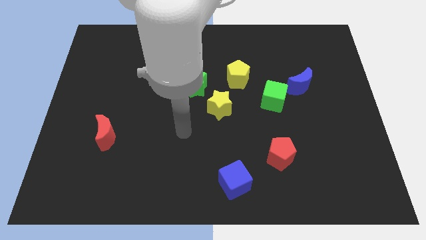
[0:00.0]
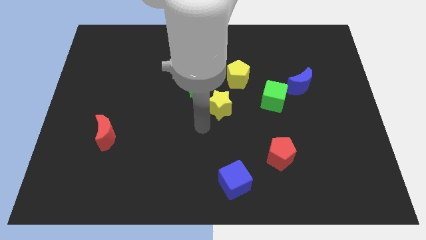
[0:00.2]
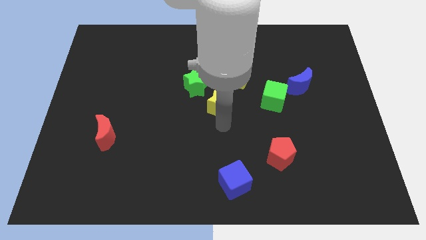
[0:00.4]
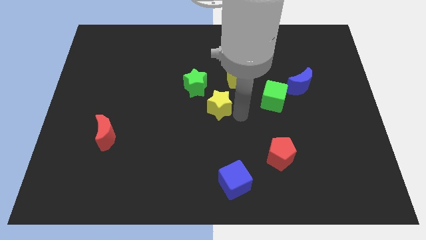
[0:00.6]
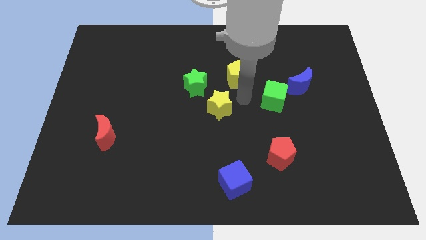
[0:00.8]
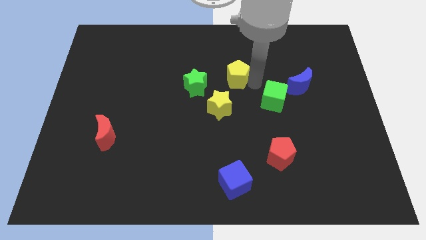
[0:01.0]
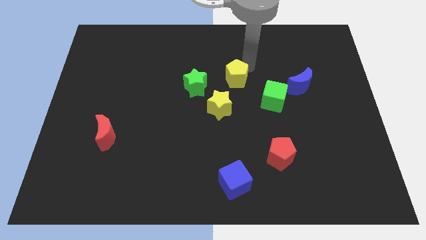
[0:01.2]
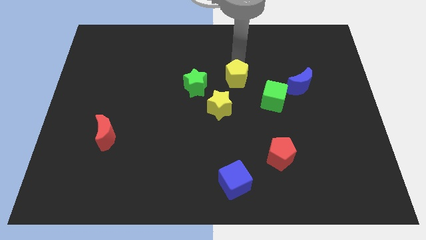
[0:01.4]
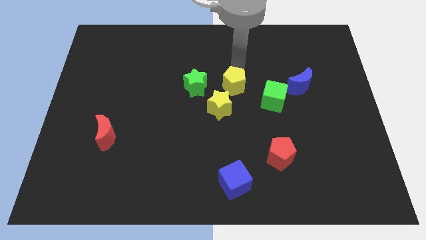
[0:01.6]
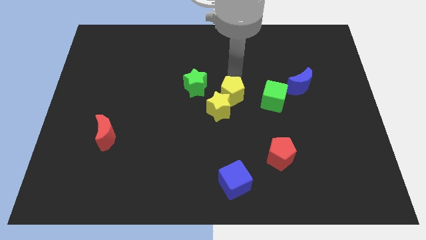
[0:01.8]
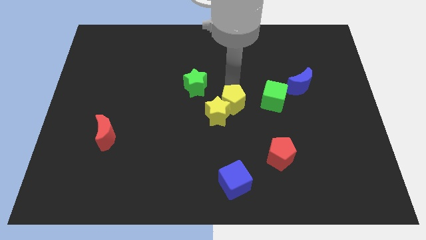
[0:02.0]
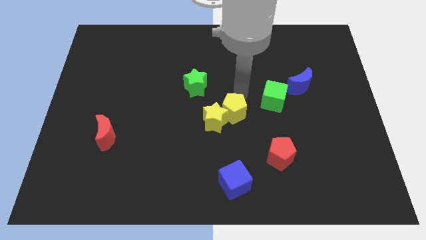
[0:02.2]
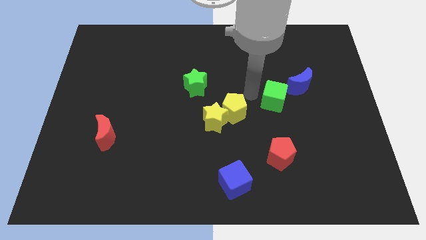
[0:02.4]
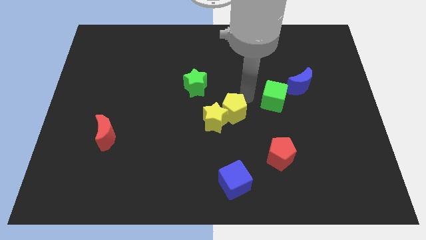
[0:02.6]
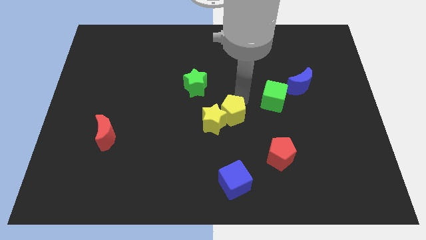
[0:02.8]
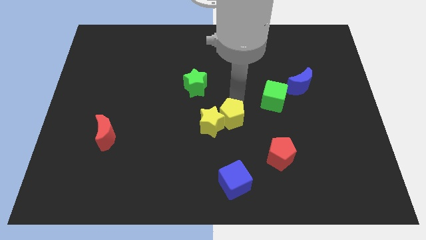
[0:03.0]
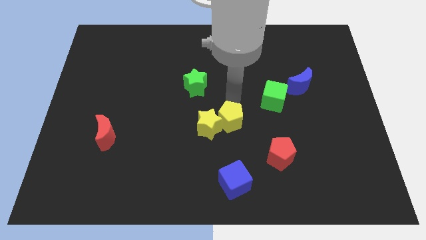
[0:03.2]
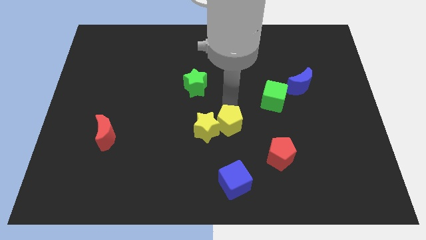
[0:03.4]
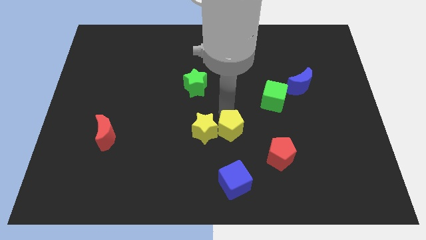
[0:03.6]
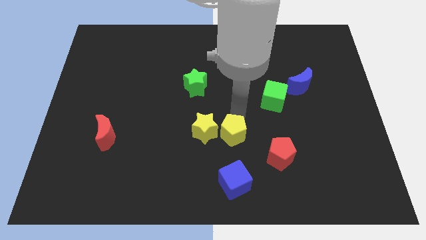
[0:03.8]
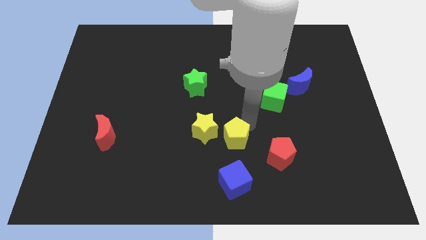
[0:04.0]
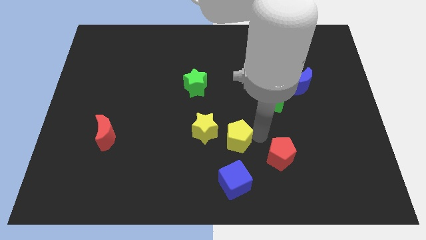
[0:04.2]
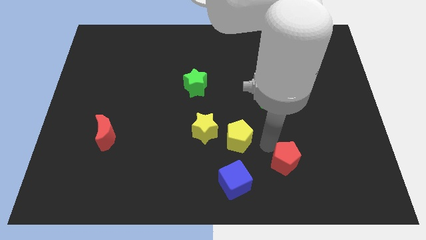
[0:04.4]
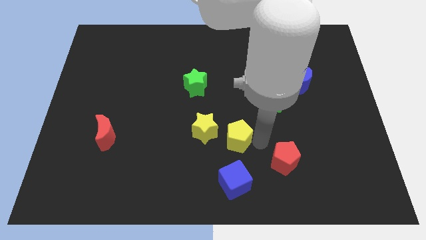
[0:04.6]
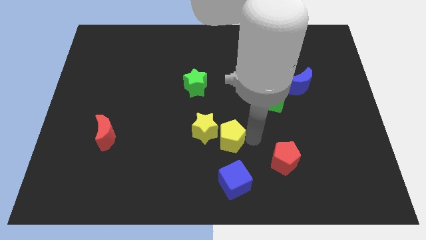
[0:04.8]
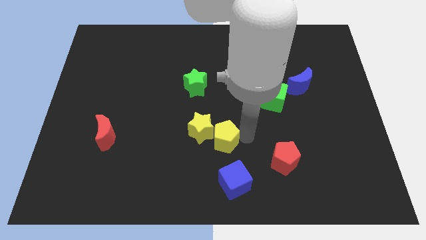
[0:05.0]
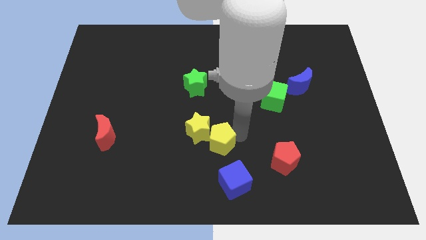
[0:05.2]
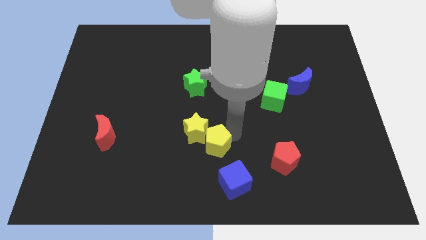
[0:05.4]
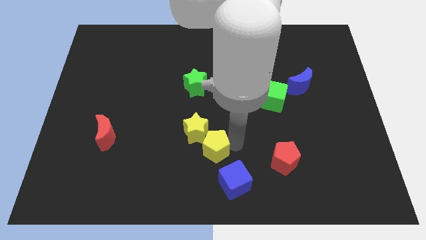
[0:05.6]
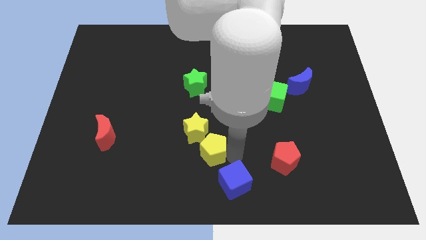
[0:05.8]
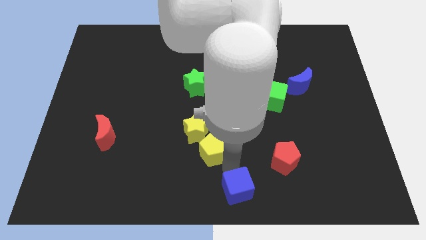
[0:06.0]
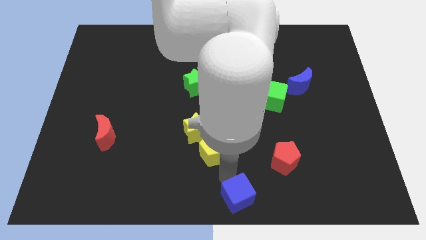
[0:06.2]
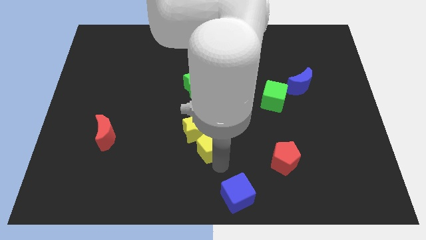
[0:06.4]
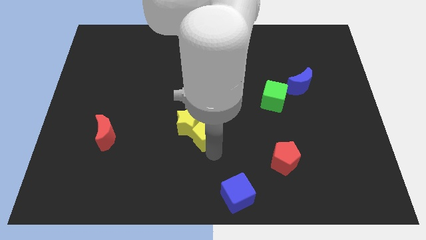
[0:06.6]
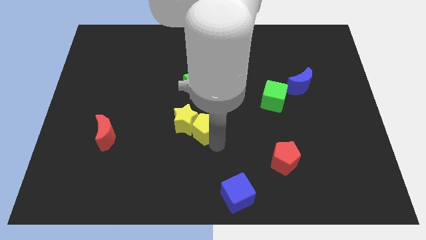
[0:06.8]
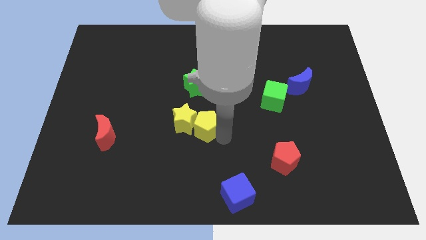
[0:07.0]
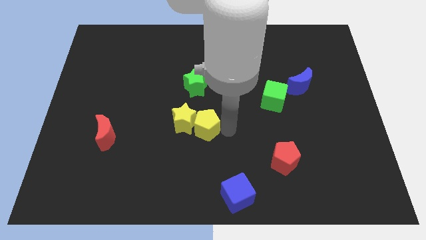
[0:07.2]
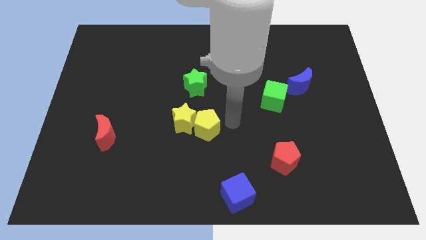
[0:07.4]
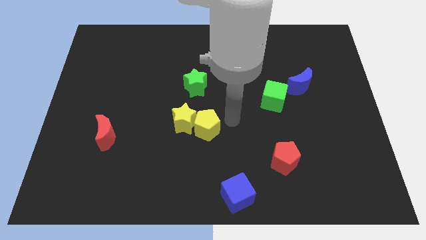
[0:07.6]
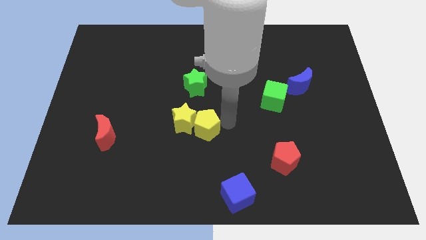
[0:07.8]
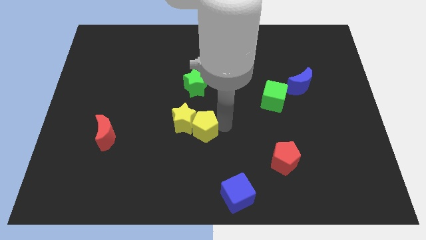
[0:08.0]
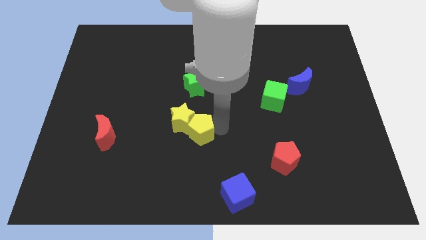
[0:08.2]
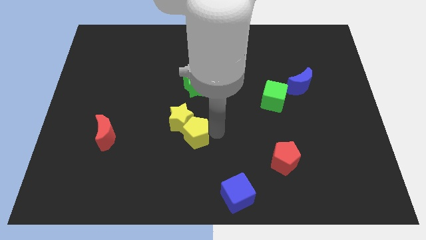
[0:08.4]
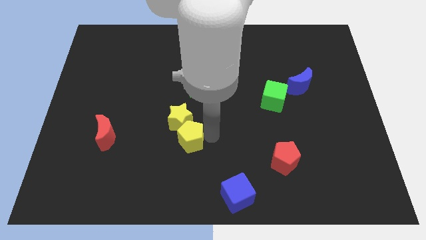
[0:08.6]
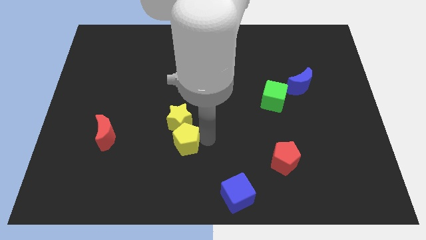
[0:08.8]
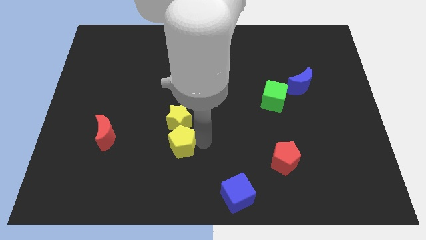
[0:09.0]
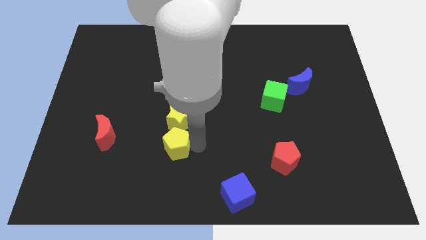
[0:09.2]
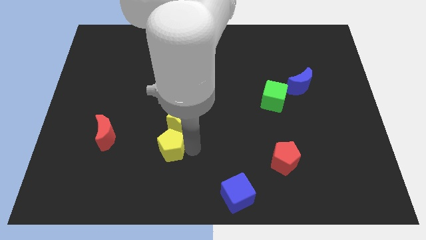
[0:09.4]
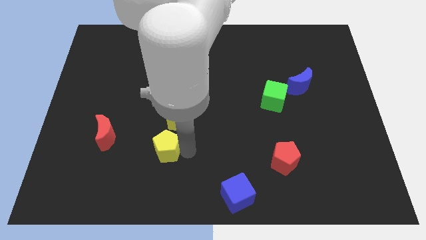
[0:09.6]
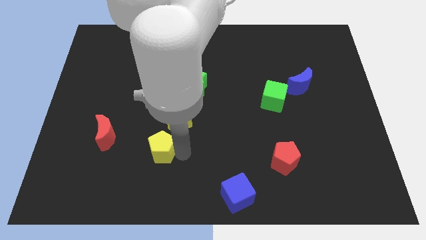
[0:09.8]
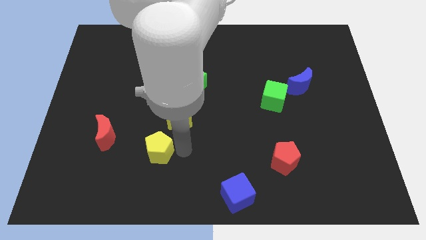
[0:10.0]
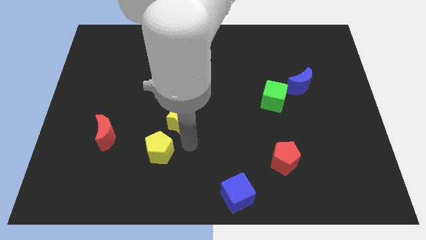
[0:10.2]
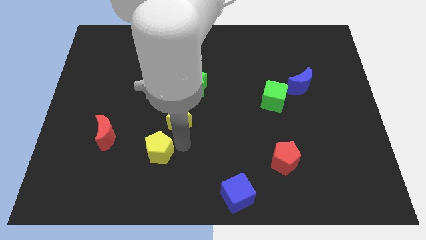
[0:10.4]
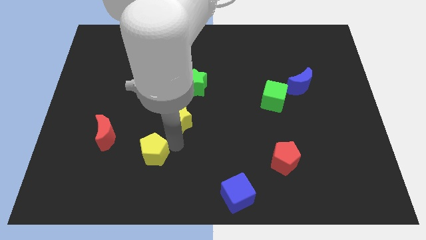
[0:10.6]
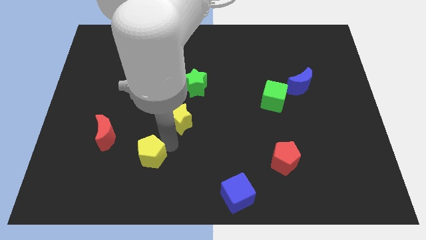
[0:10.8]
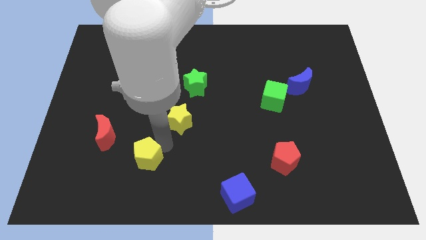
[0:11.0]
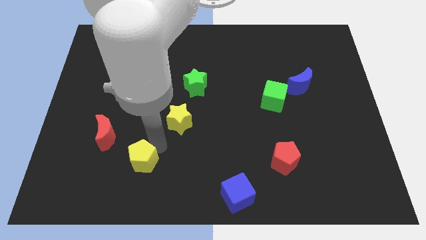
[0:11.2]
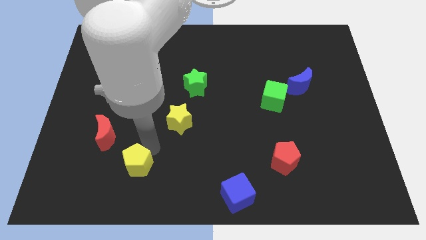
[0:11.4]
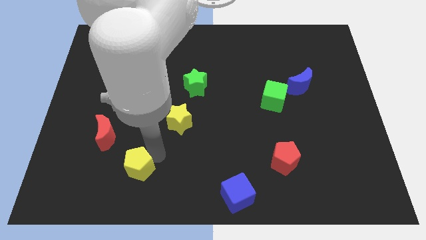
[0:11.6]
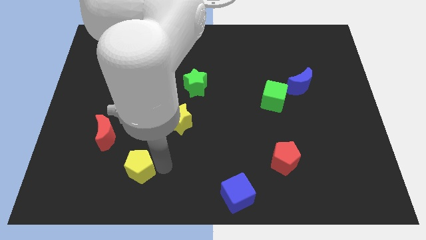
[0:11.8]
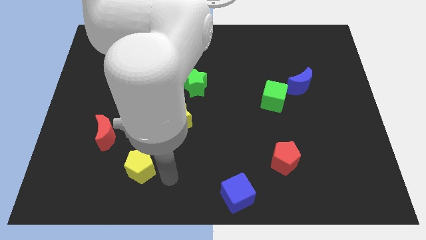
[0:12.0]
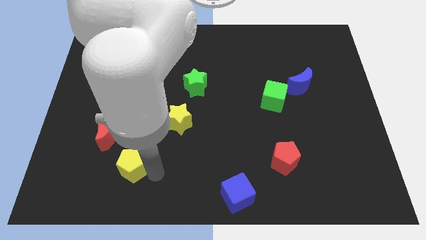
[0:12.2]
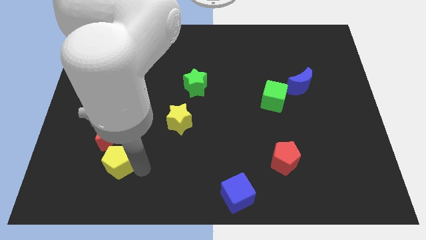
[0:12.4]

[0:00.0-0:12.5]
push the yellow pentagon to the bottom of the red moon

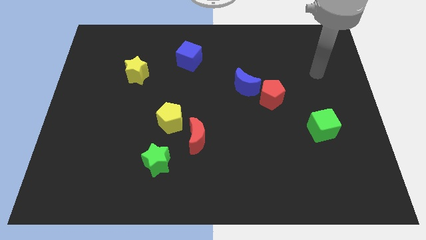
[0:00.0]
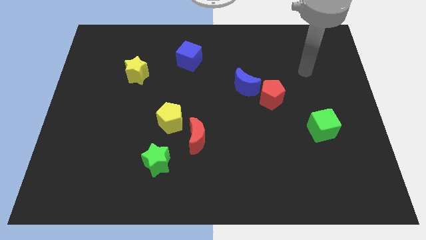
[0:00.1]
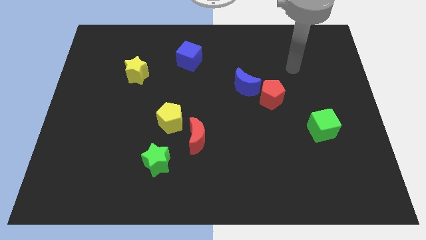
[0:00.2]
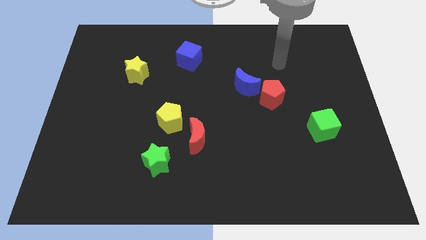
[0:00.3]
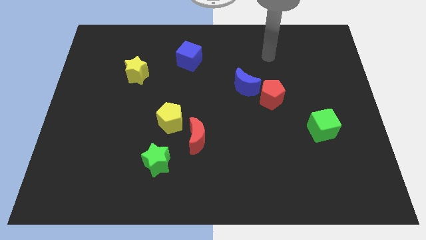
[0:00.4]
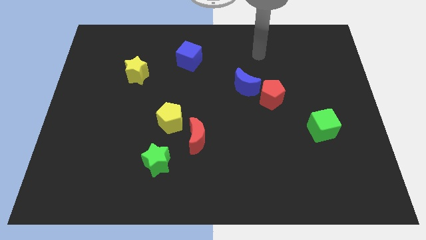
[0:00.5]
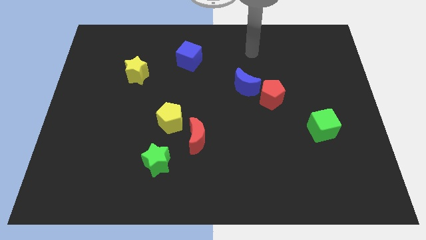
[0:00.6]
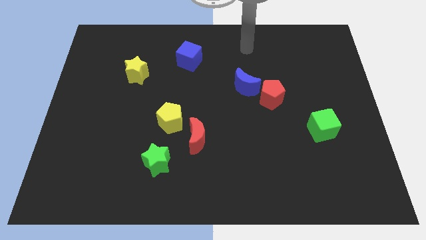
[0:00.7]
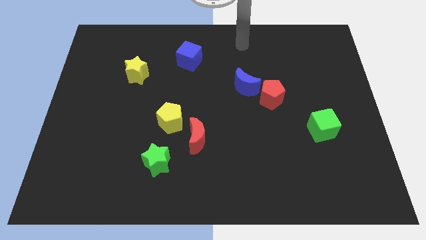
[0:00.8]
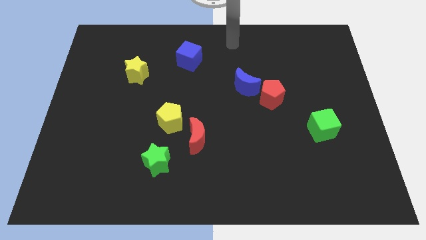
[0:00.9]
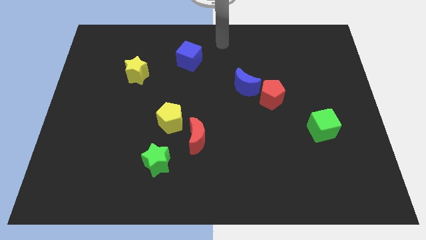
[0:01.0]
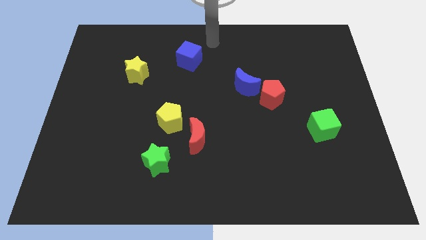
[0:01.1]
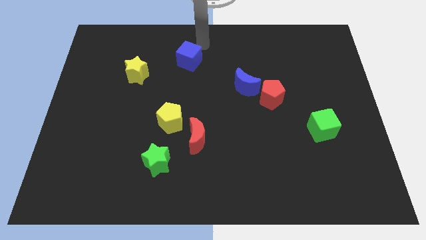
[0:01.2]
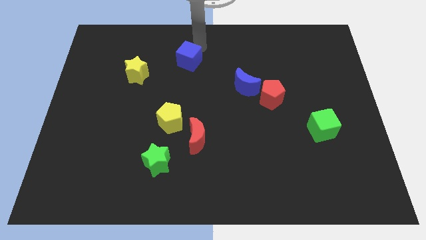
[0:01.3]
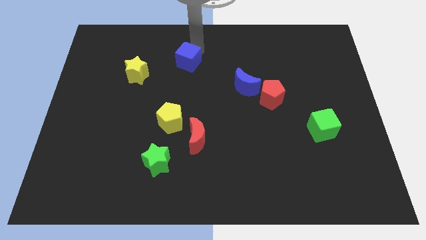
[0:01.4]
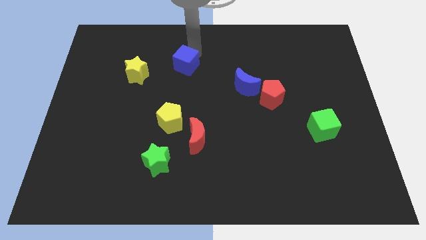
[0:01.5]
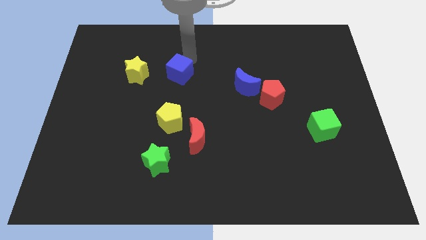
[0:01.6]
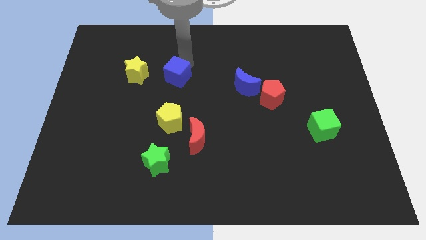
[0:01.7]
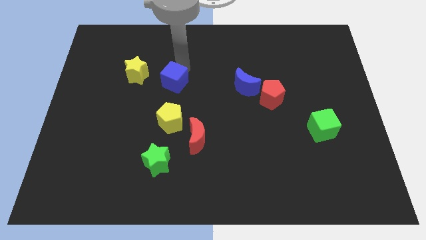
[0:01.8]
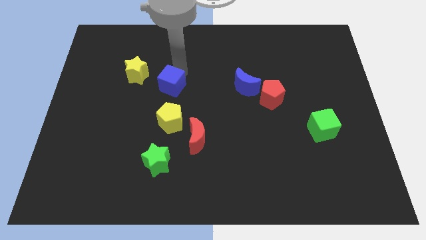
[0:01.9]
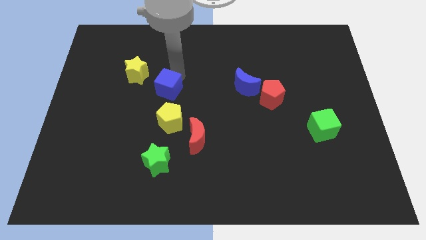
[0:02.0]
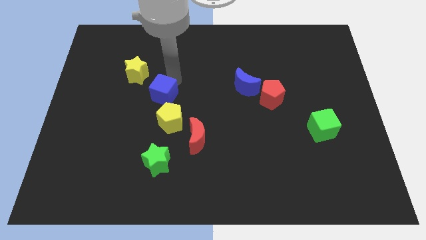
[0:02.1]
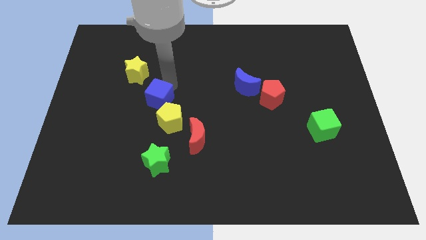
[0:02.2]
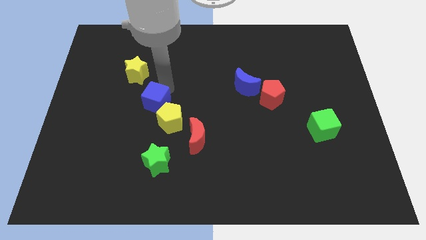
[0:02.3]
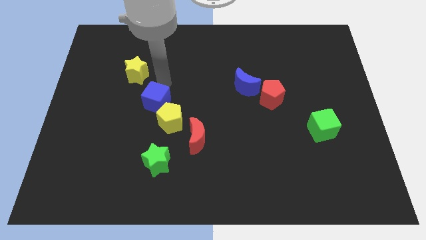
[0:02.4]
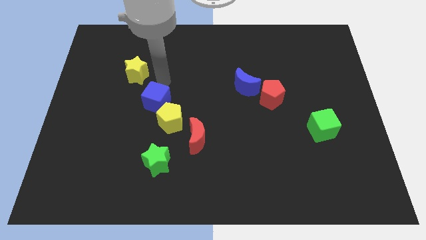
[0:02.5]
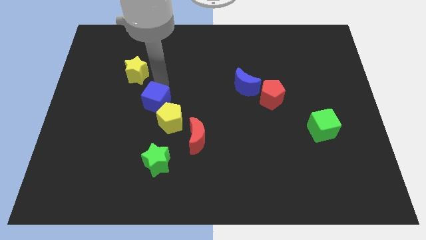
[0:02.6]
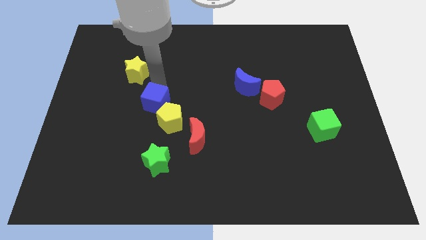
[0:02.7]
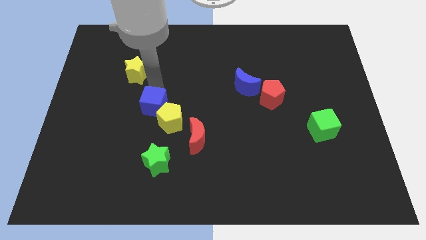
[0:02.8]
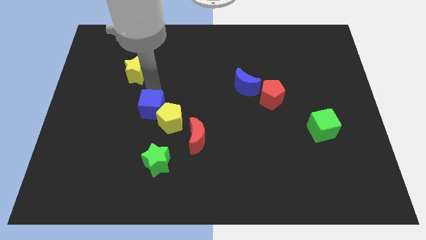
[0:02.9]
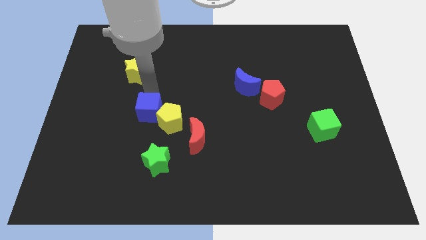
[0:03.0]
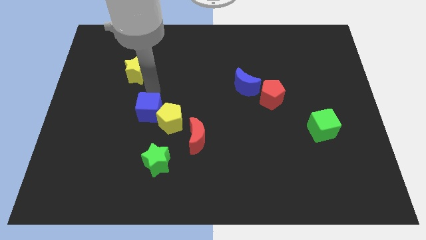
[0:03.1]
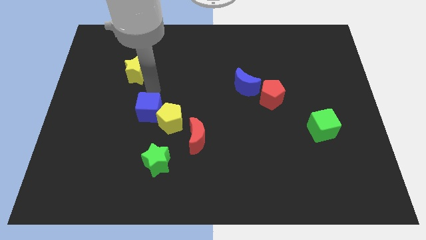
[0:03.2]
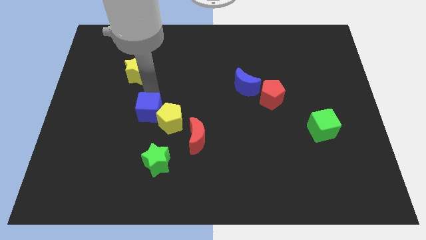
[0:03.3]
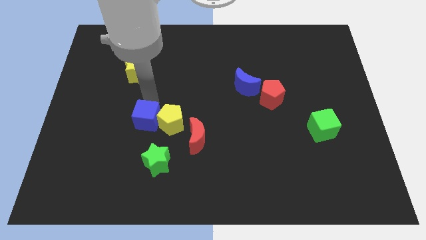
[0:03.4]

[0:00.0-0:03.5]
move the blue cube to the bottom left side of the yellow pentagon
